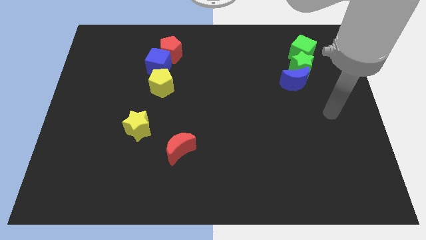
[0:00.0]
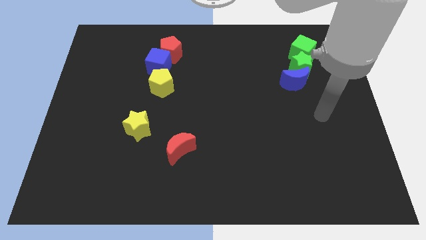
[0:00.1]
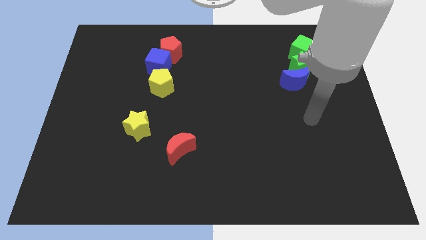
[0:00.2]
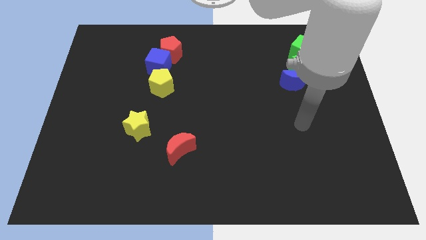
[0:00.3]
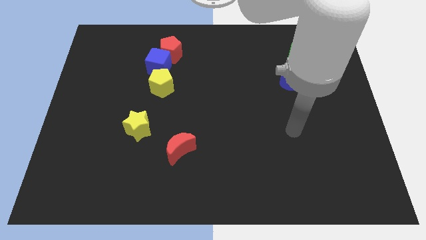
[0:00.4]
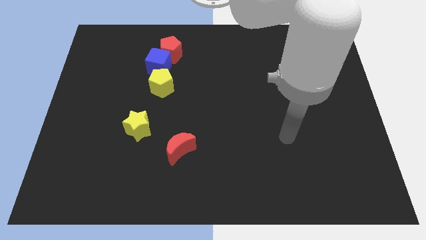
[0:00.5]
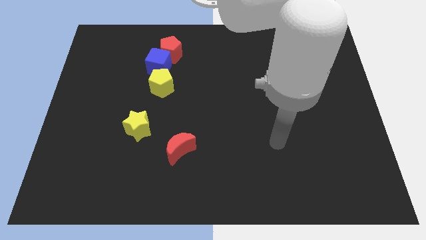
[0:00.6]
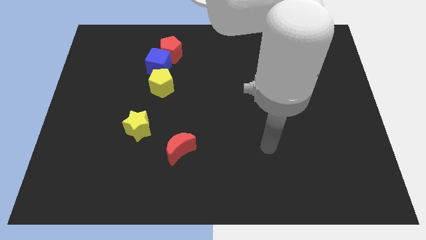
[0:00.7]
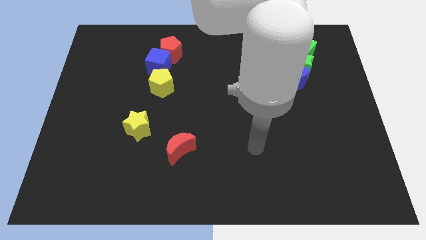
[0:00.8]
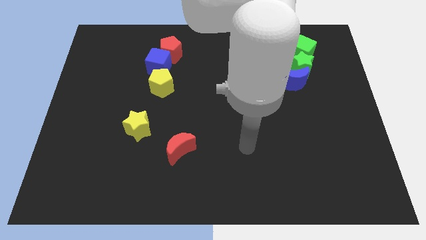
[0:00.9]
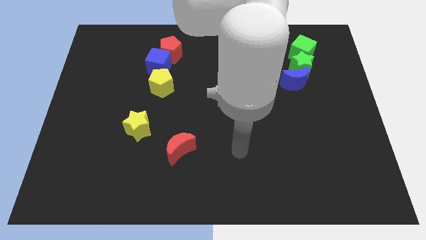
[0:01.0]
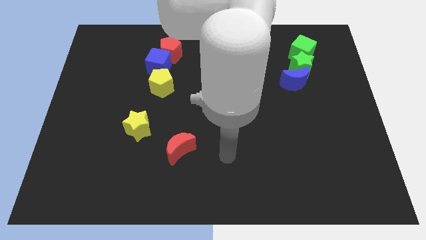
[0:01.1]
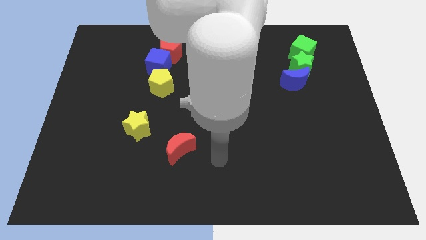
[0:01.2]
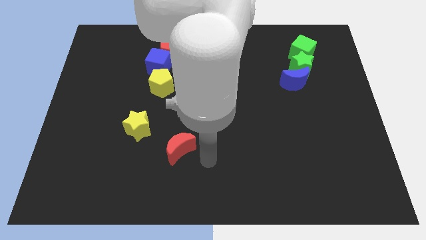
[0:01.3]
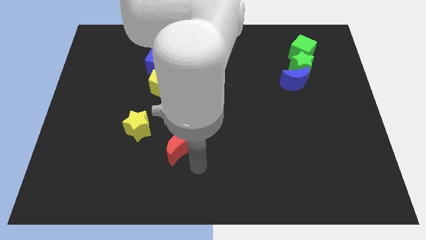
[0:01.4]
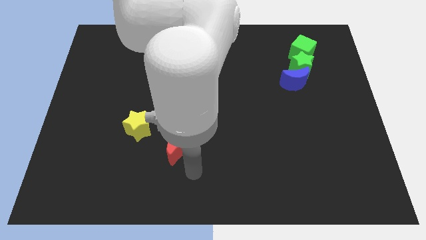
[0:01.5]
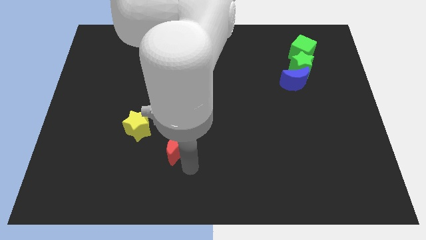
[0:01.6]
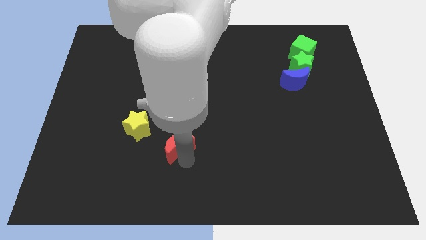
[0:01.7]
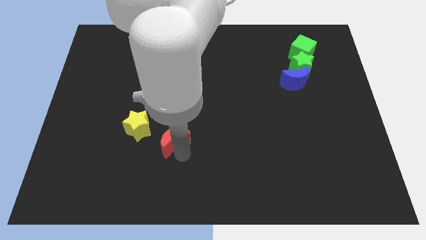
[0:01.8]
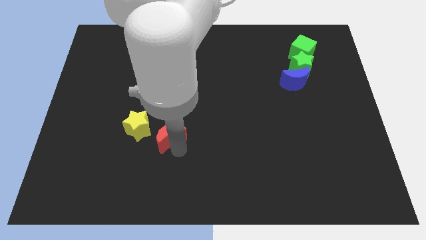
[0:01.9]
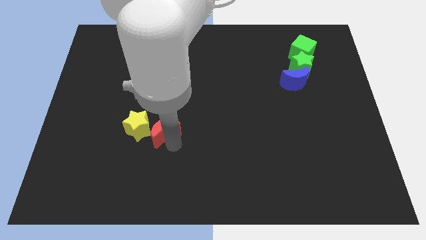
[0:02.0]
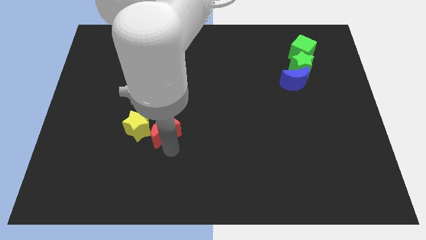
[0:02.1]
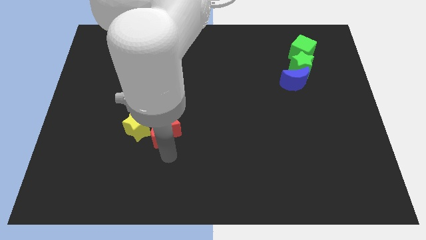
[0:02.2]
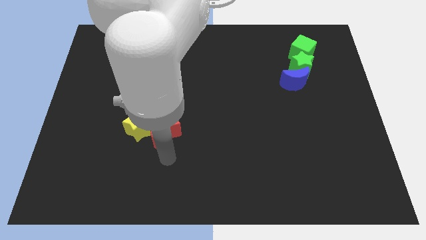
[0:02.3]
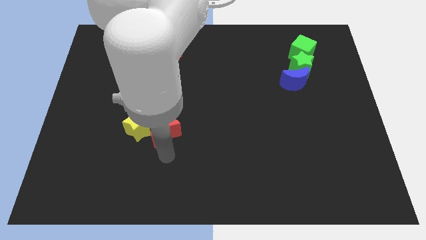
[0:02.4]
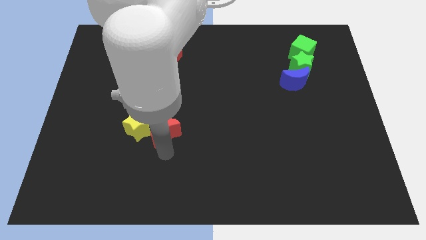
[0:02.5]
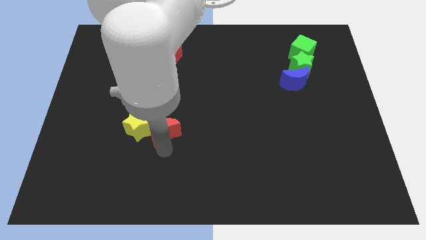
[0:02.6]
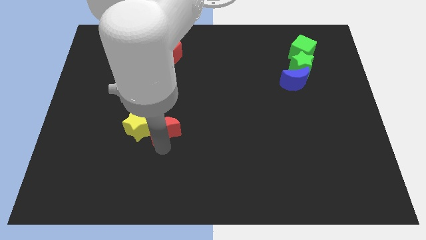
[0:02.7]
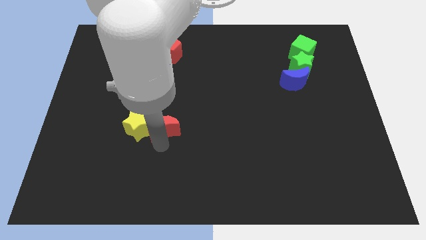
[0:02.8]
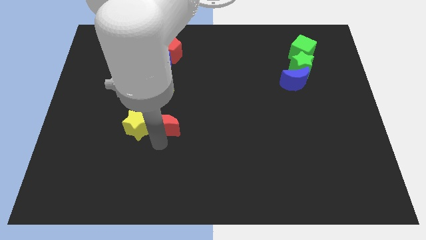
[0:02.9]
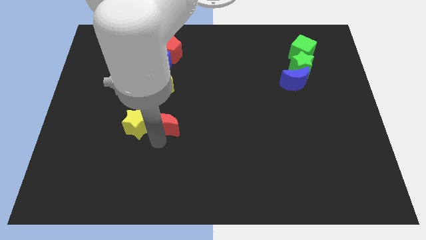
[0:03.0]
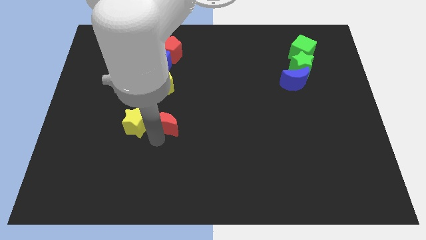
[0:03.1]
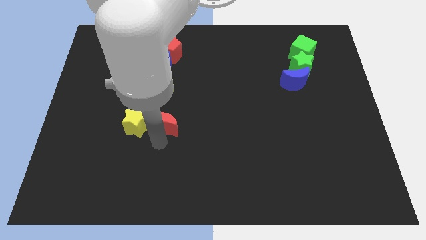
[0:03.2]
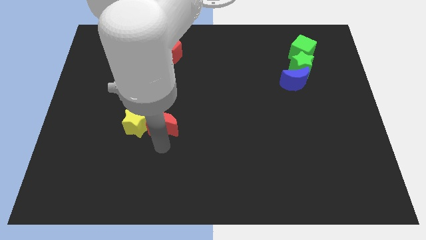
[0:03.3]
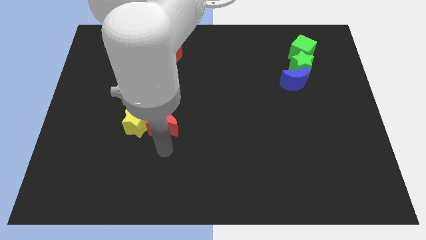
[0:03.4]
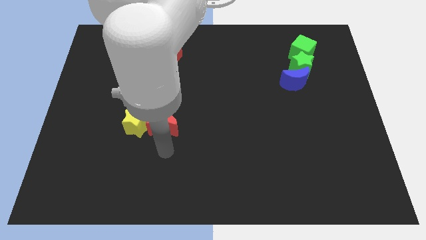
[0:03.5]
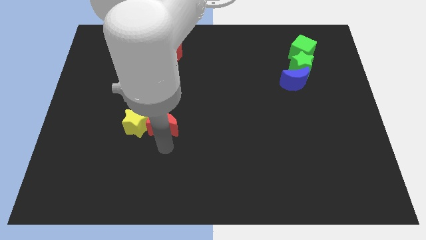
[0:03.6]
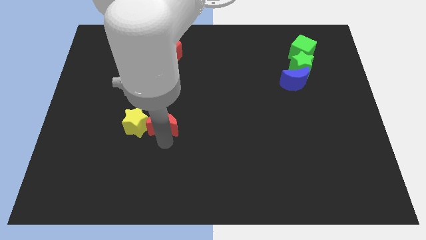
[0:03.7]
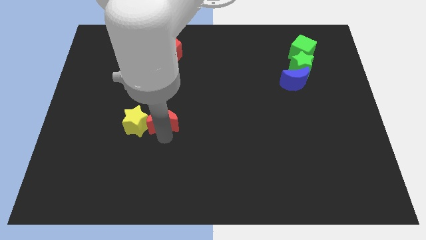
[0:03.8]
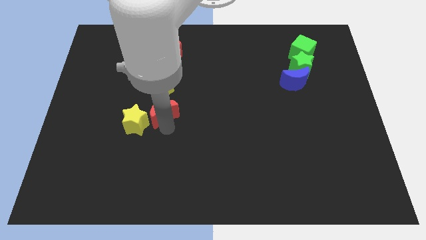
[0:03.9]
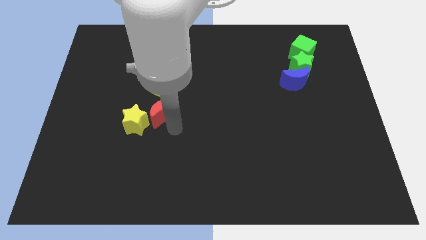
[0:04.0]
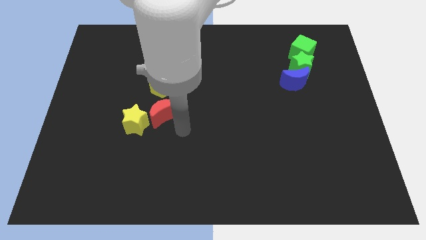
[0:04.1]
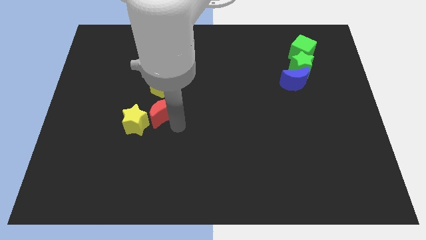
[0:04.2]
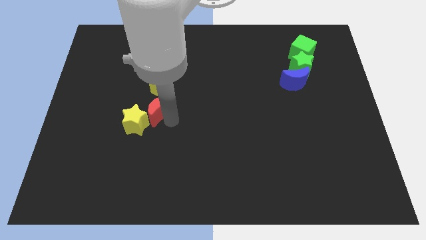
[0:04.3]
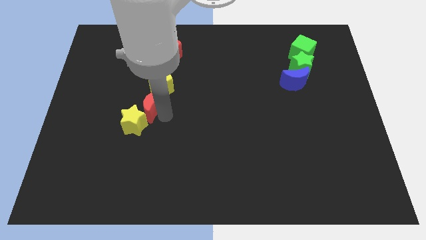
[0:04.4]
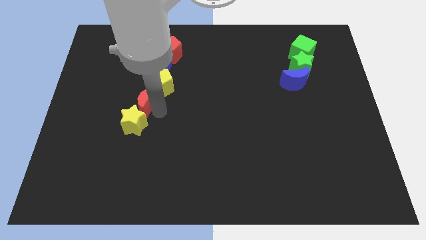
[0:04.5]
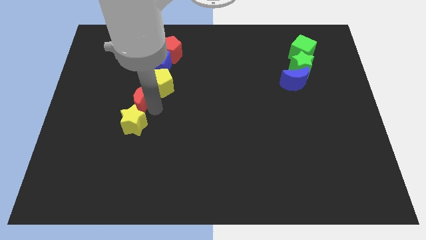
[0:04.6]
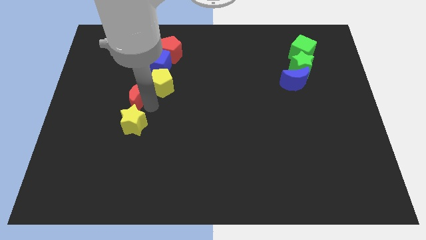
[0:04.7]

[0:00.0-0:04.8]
slide the red moon to the left side of the yellow pentagon

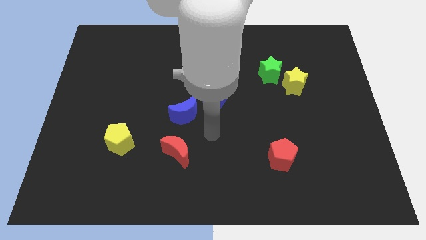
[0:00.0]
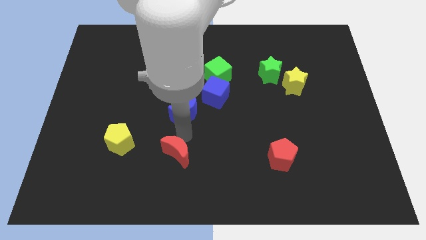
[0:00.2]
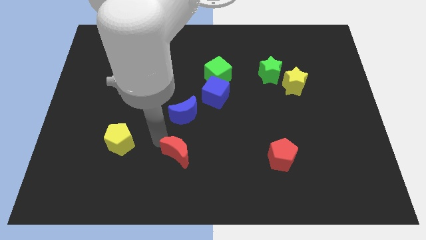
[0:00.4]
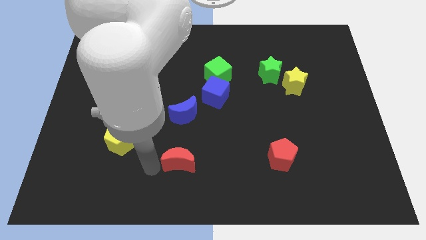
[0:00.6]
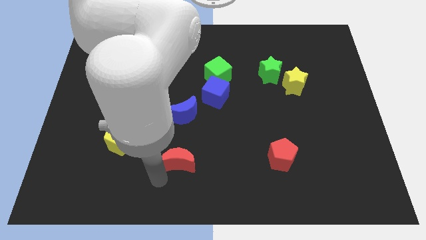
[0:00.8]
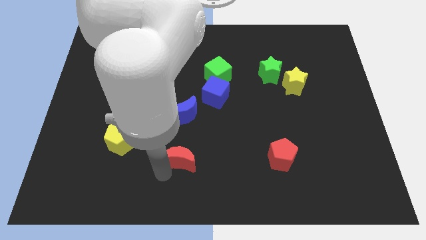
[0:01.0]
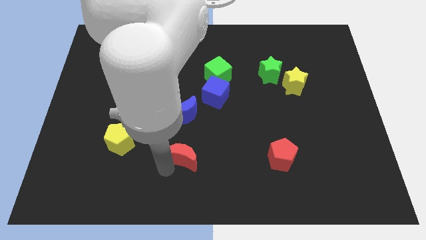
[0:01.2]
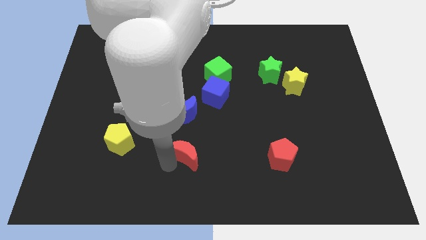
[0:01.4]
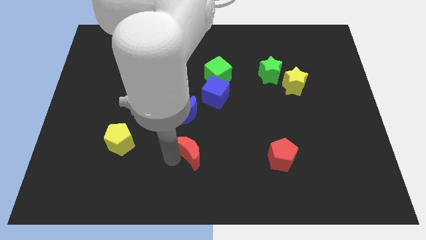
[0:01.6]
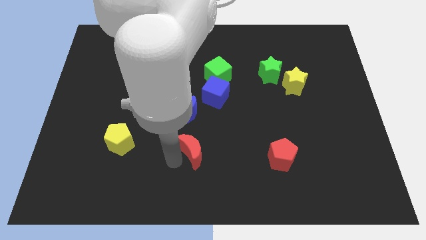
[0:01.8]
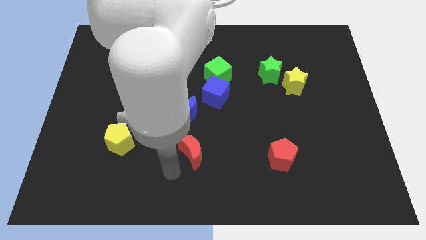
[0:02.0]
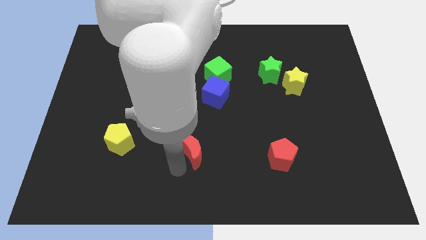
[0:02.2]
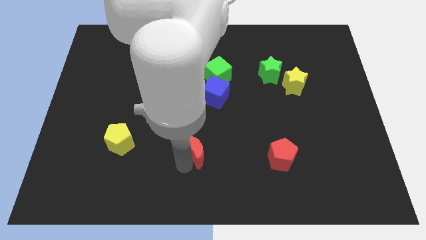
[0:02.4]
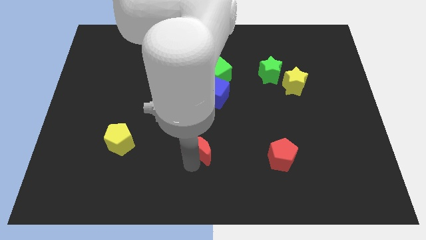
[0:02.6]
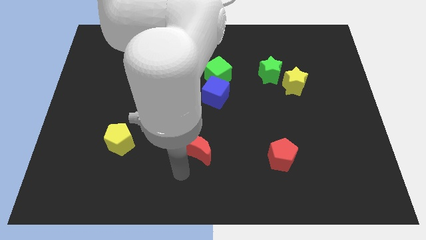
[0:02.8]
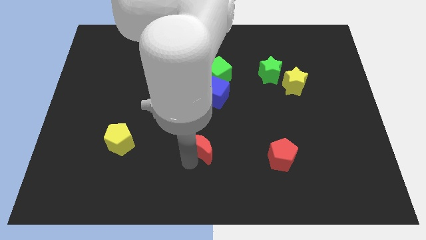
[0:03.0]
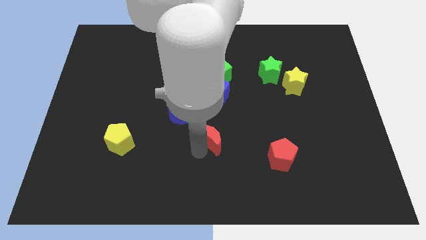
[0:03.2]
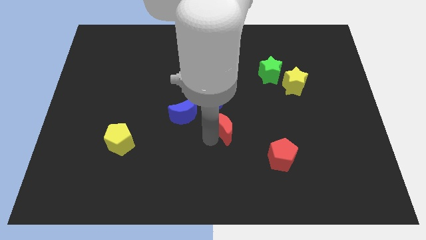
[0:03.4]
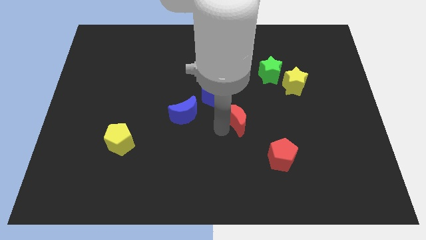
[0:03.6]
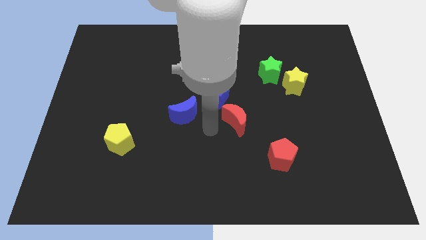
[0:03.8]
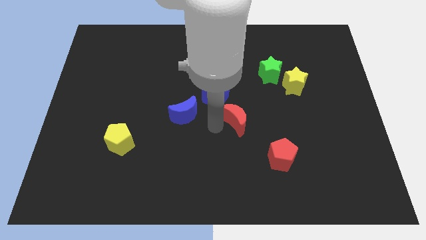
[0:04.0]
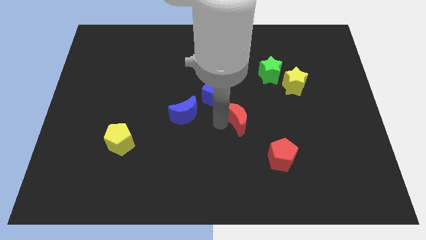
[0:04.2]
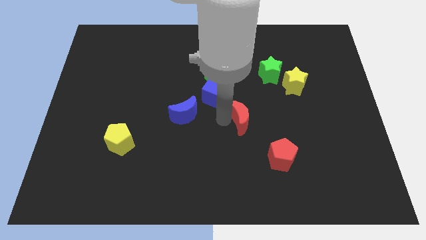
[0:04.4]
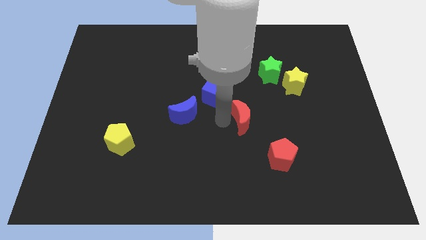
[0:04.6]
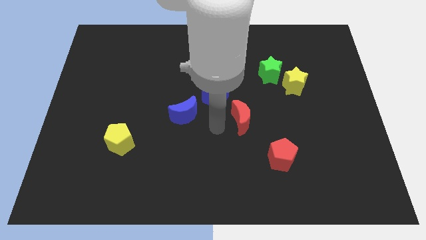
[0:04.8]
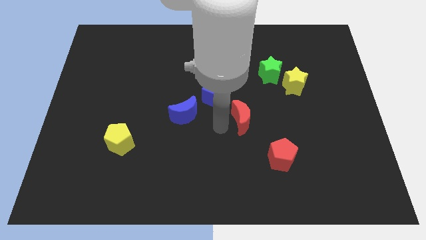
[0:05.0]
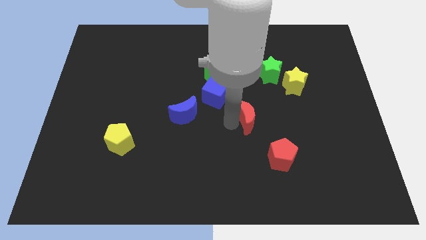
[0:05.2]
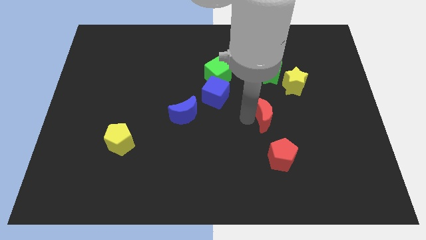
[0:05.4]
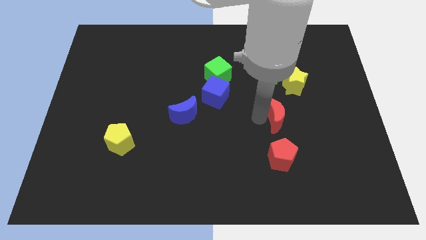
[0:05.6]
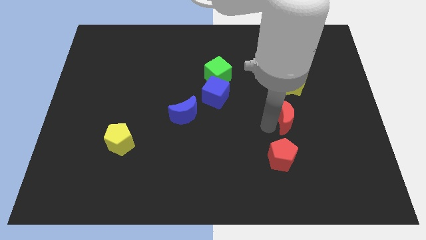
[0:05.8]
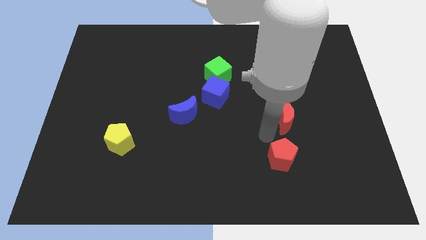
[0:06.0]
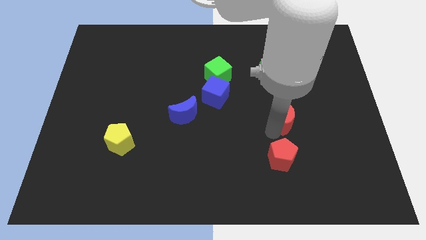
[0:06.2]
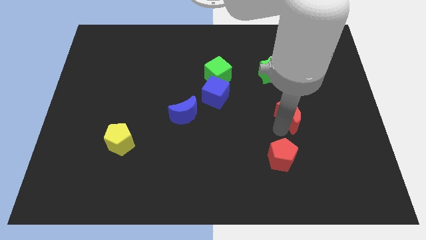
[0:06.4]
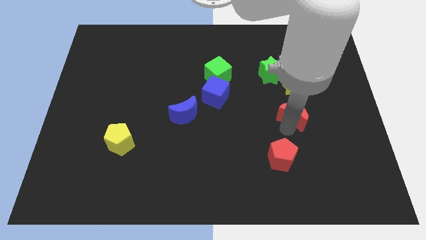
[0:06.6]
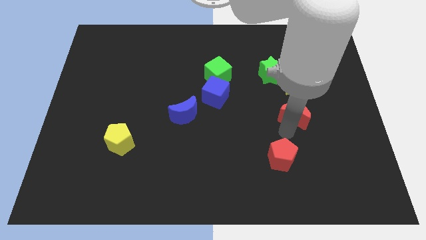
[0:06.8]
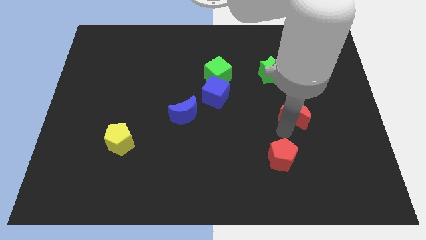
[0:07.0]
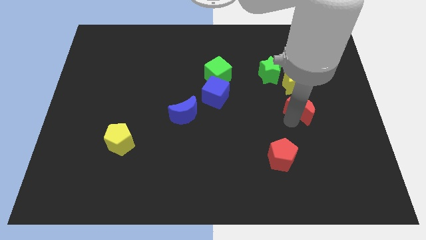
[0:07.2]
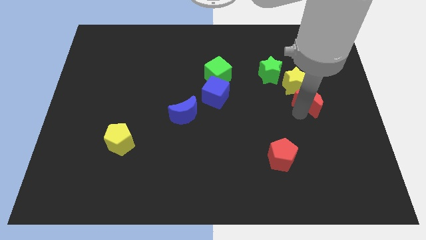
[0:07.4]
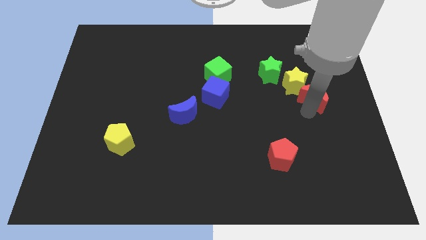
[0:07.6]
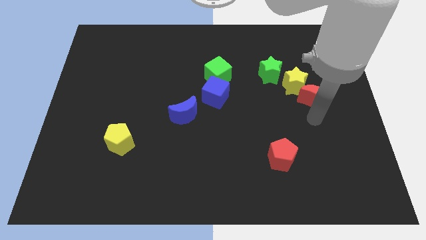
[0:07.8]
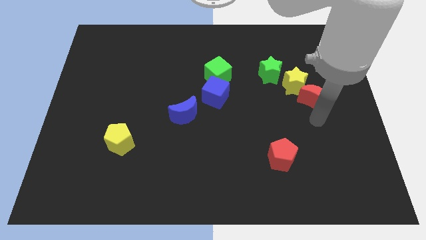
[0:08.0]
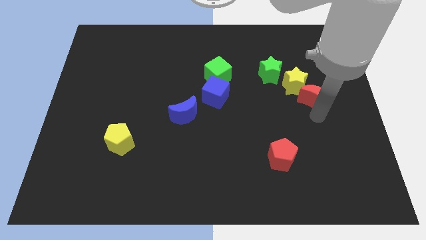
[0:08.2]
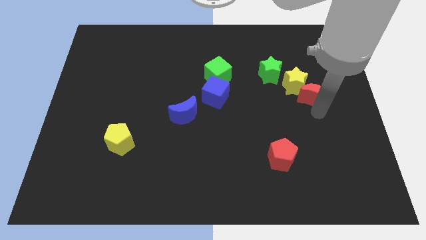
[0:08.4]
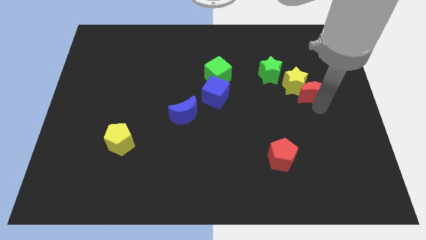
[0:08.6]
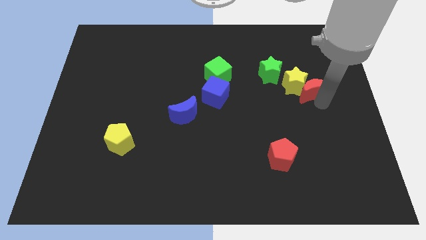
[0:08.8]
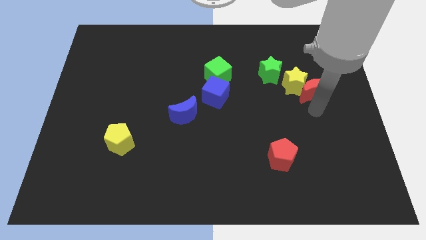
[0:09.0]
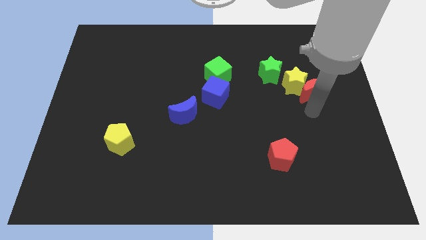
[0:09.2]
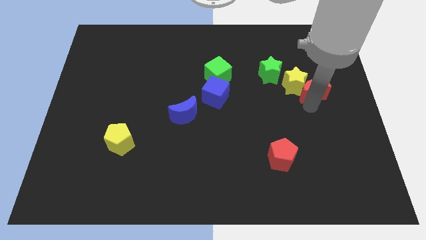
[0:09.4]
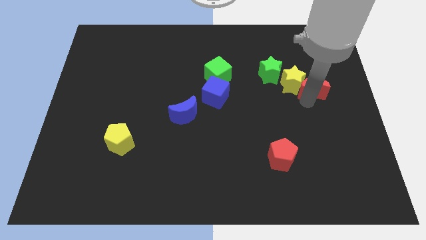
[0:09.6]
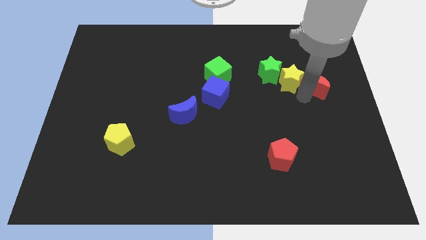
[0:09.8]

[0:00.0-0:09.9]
move the red moon just right of the green star
